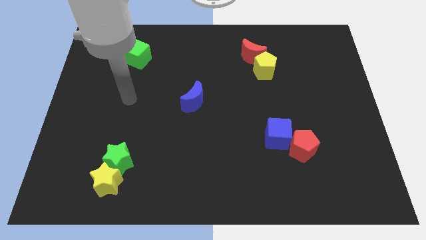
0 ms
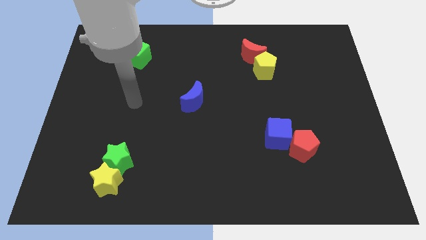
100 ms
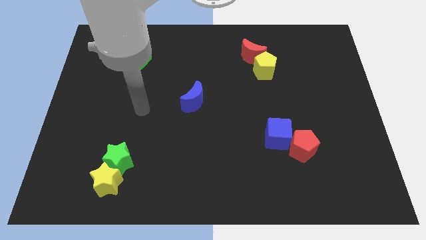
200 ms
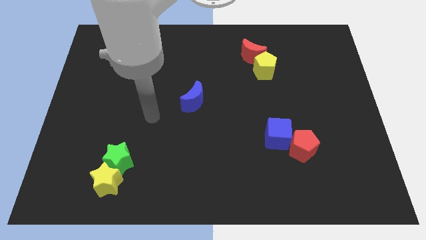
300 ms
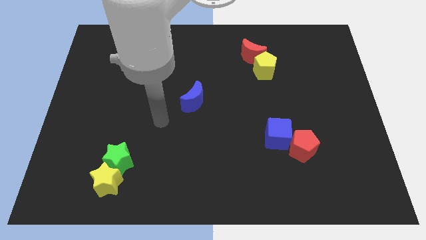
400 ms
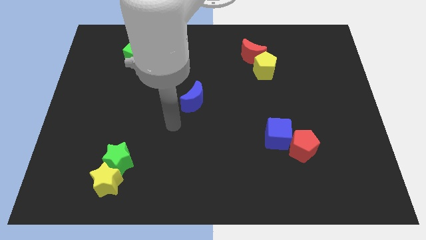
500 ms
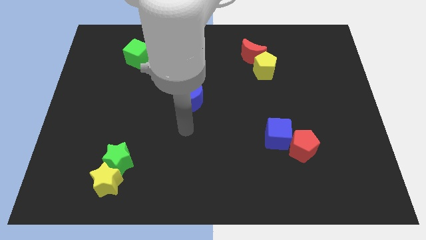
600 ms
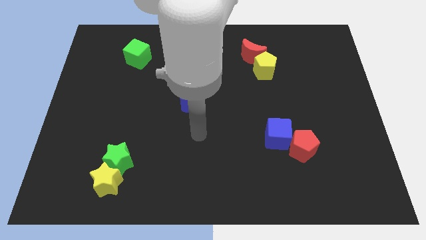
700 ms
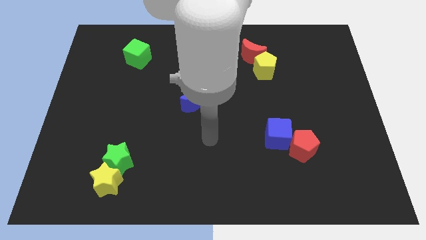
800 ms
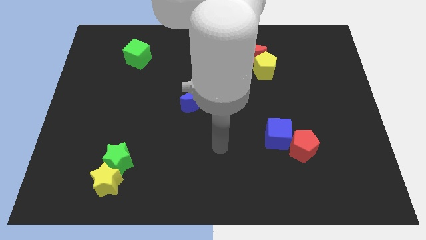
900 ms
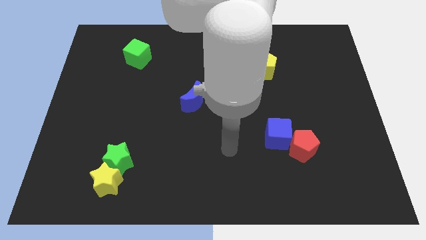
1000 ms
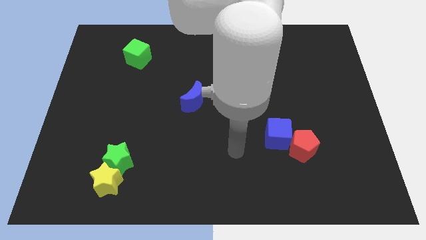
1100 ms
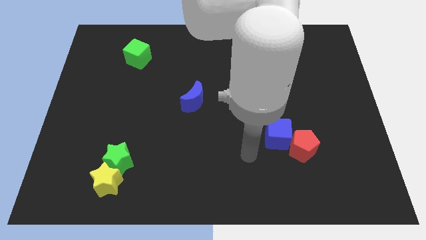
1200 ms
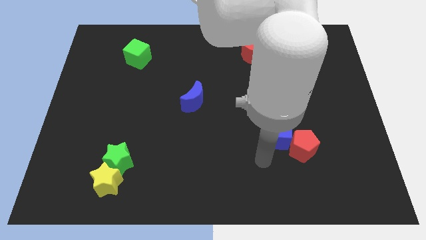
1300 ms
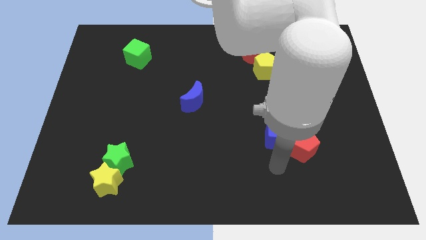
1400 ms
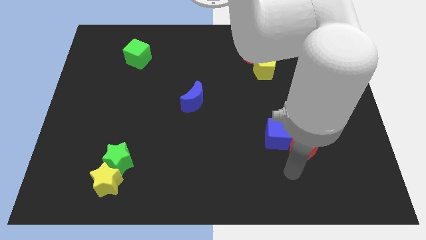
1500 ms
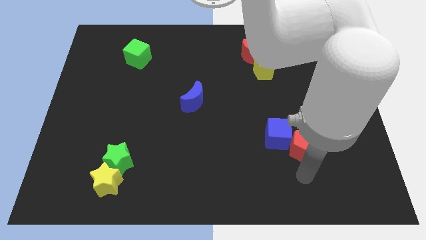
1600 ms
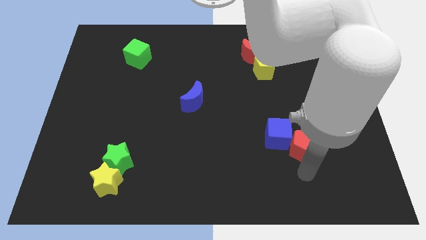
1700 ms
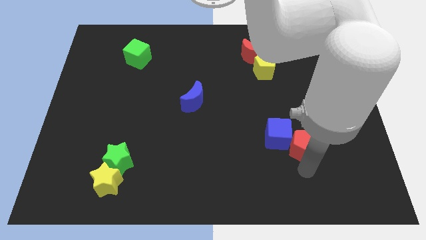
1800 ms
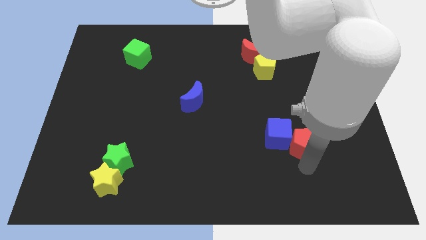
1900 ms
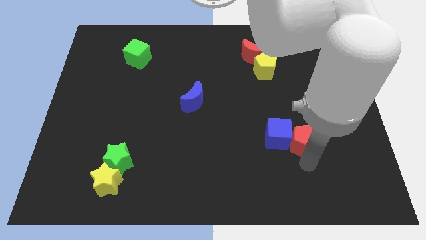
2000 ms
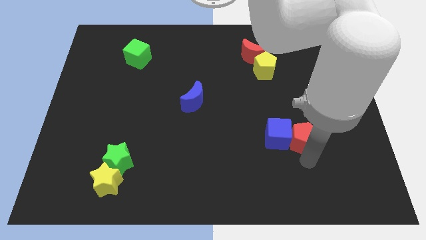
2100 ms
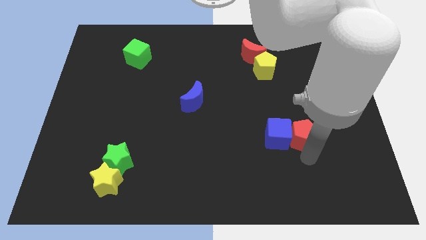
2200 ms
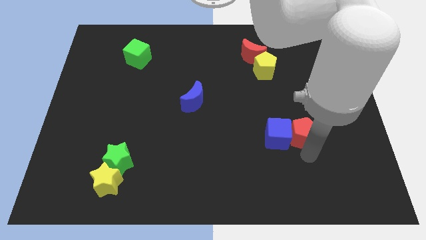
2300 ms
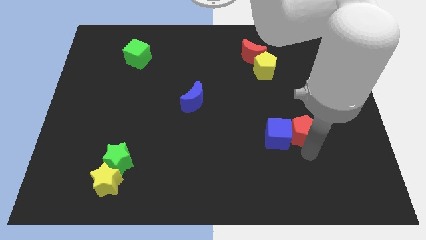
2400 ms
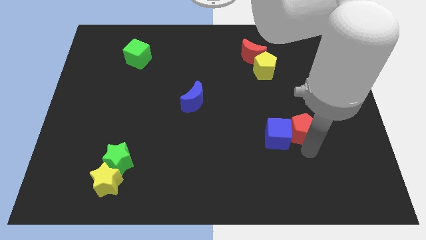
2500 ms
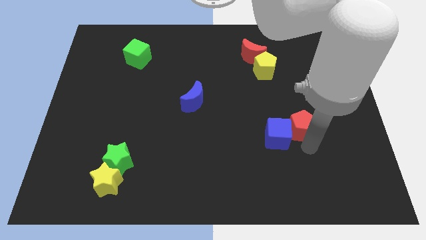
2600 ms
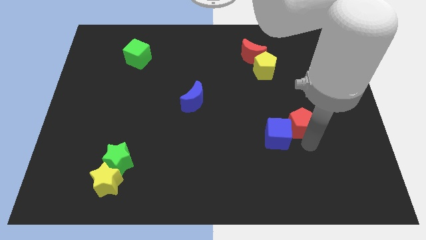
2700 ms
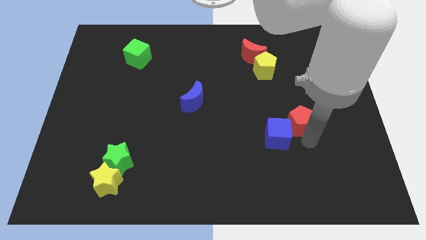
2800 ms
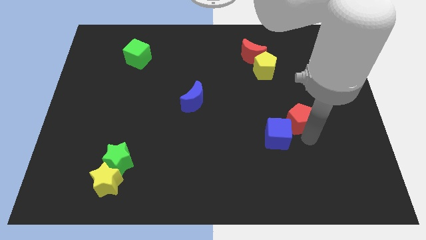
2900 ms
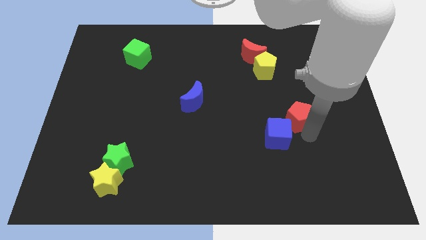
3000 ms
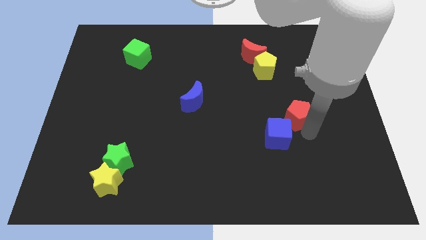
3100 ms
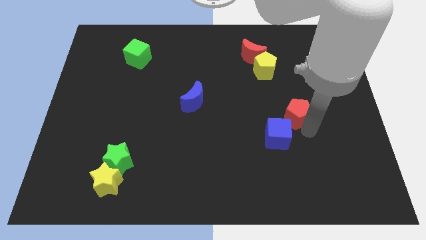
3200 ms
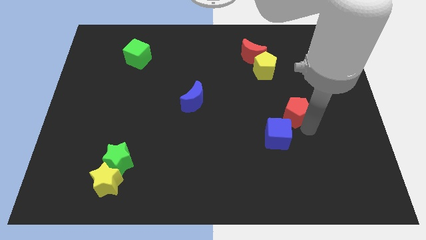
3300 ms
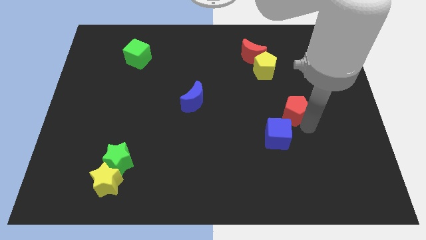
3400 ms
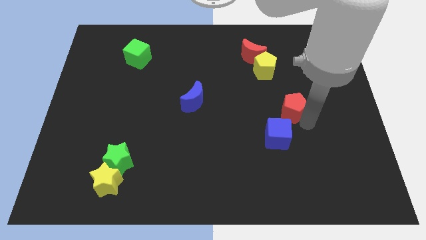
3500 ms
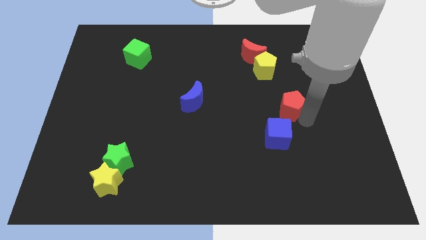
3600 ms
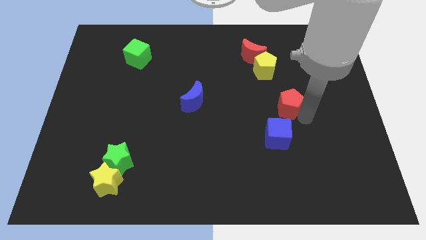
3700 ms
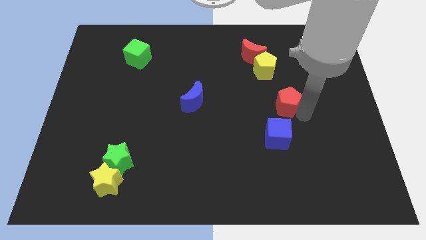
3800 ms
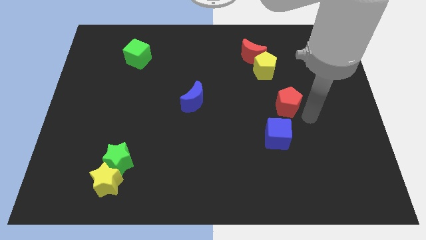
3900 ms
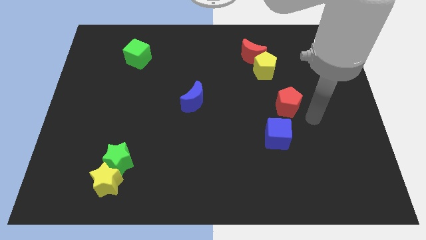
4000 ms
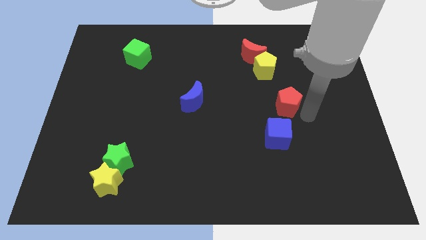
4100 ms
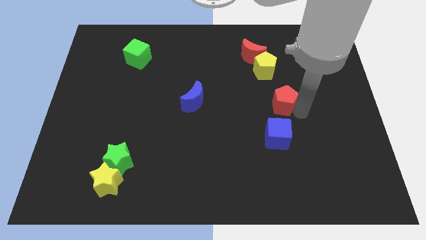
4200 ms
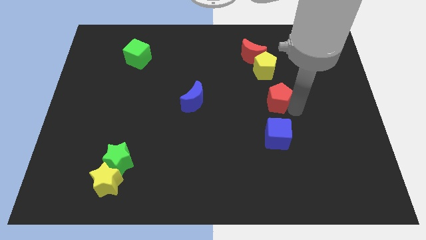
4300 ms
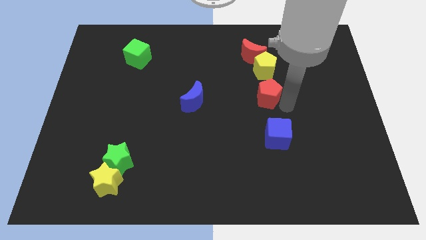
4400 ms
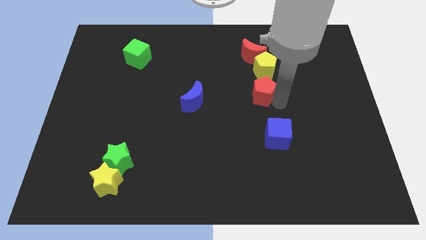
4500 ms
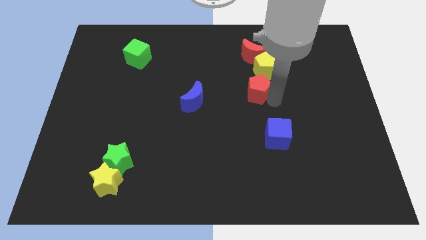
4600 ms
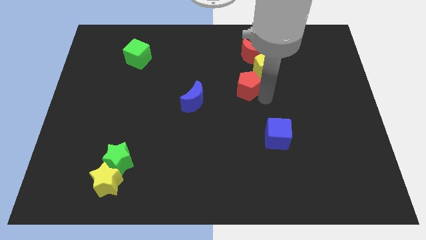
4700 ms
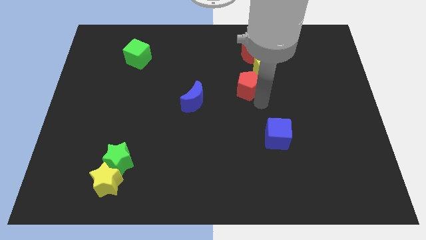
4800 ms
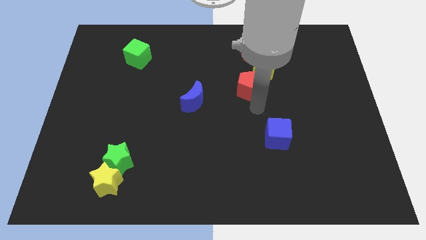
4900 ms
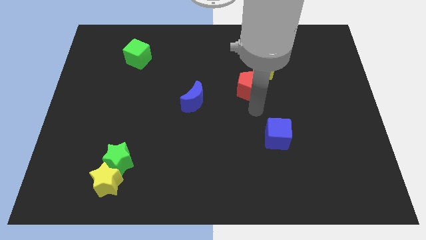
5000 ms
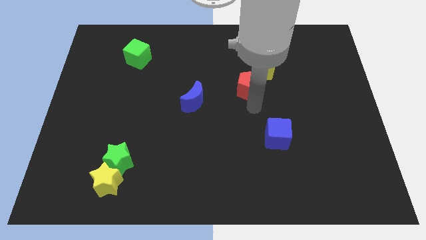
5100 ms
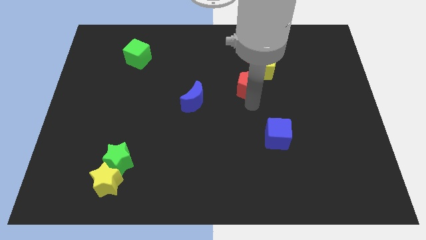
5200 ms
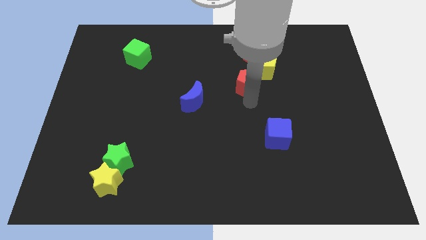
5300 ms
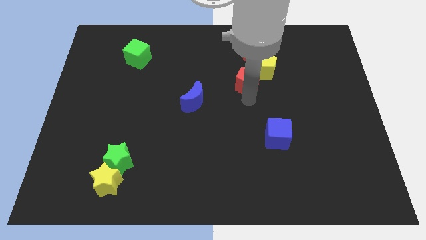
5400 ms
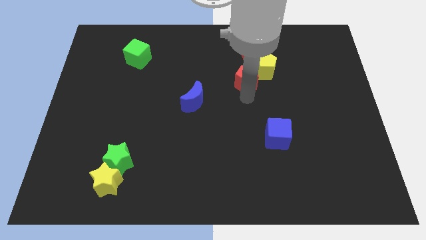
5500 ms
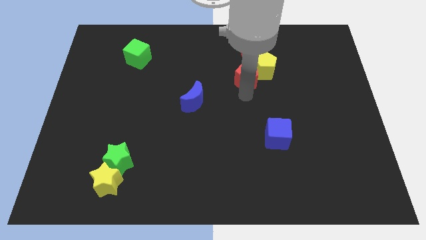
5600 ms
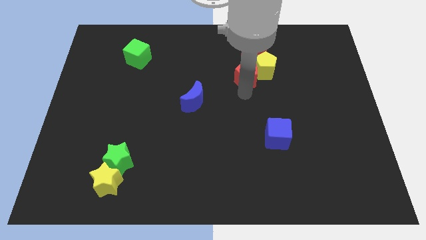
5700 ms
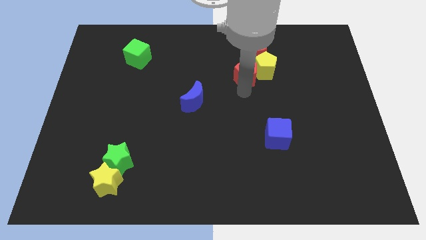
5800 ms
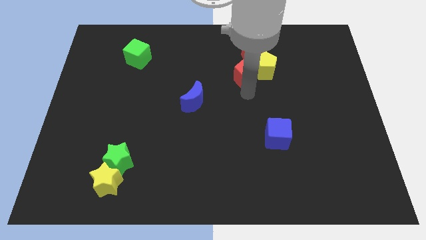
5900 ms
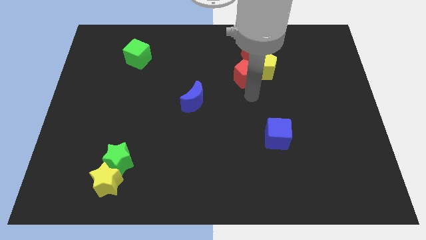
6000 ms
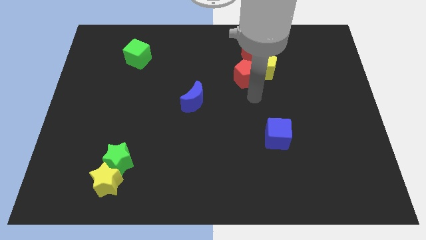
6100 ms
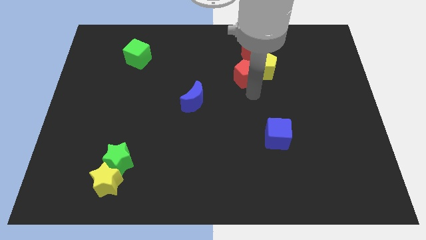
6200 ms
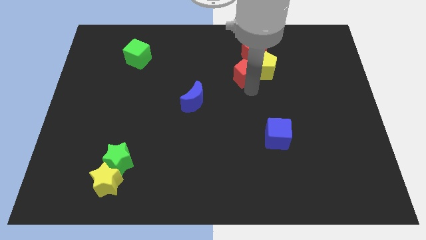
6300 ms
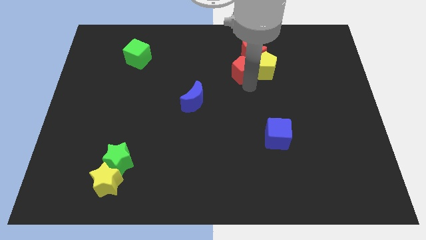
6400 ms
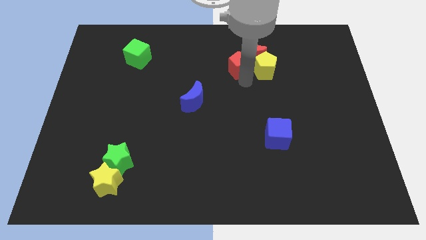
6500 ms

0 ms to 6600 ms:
put the red pentagon towards the red moon
